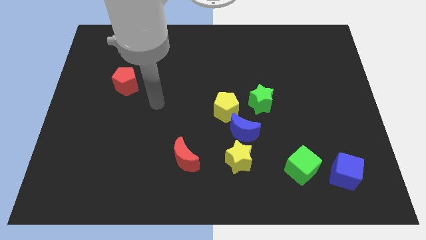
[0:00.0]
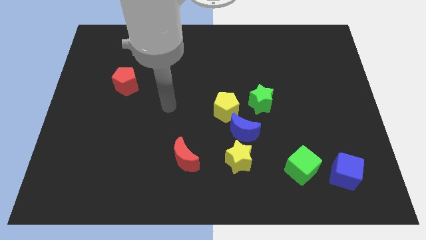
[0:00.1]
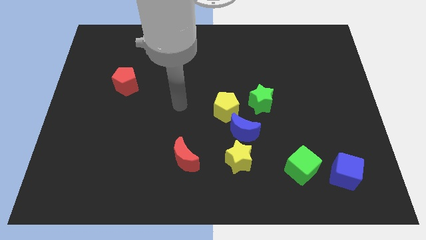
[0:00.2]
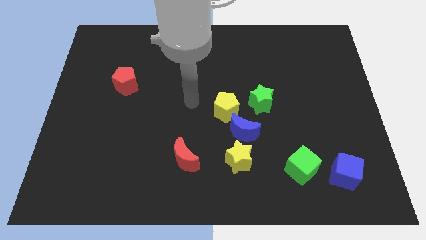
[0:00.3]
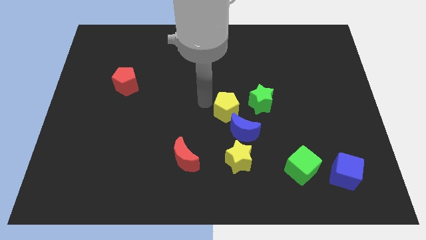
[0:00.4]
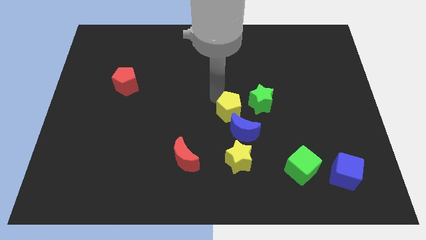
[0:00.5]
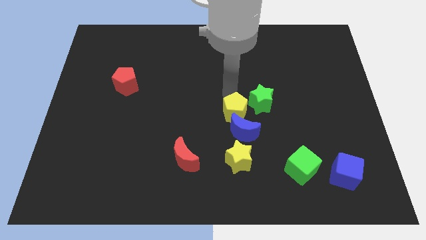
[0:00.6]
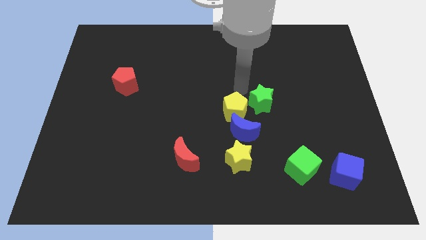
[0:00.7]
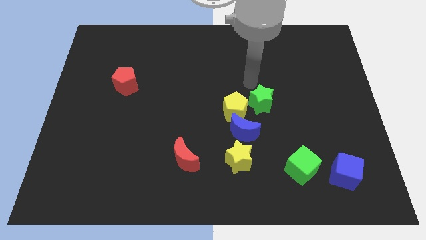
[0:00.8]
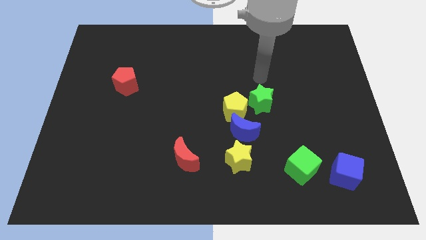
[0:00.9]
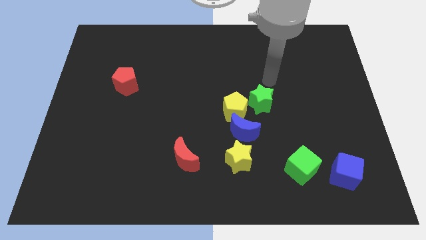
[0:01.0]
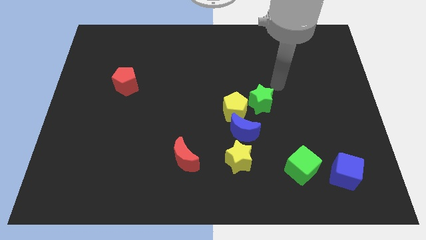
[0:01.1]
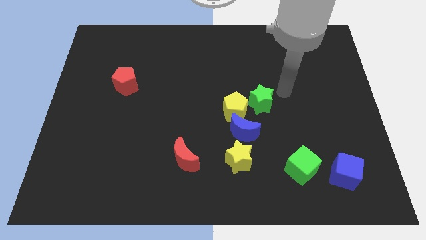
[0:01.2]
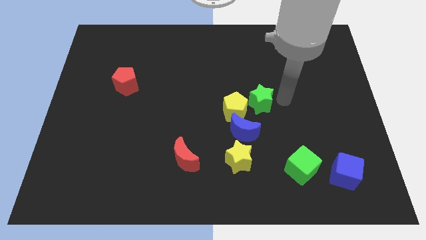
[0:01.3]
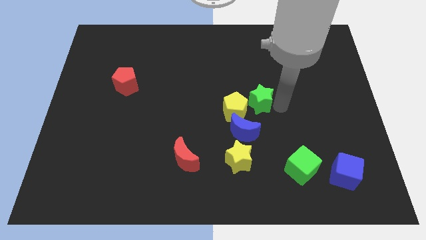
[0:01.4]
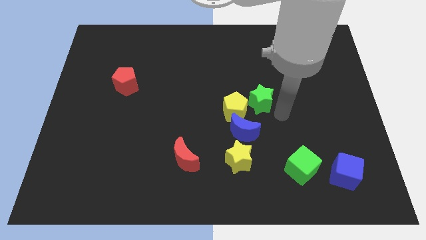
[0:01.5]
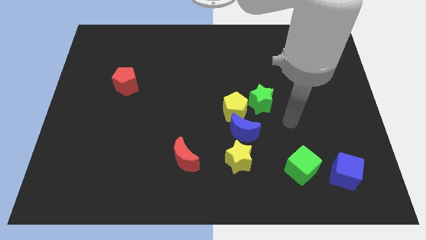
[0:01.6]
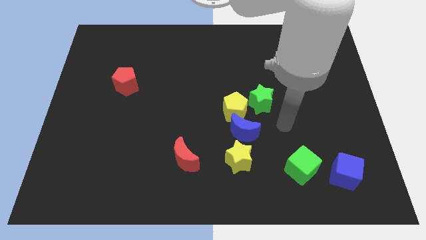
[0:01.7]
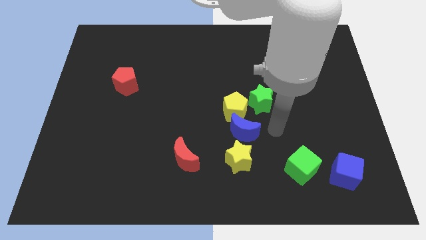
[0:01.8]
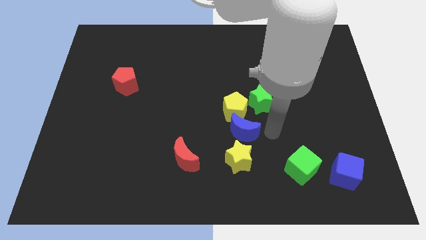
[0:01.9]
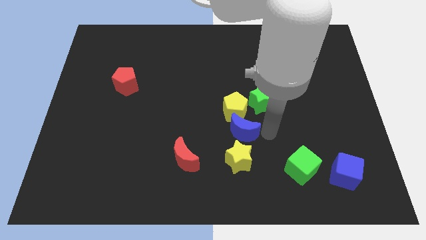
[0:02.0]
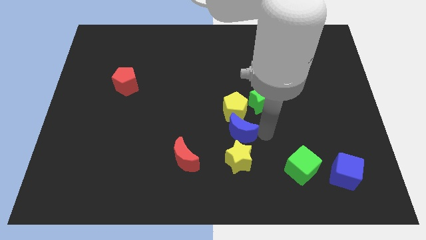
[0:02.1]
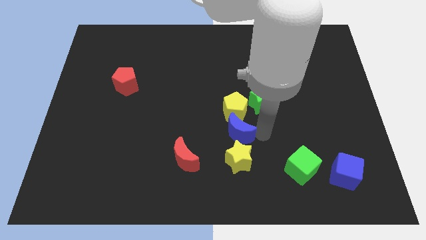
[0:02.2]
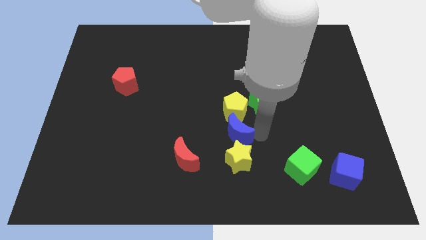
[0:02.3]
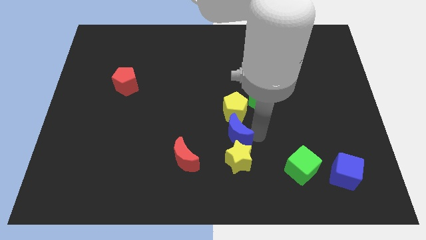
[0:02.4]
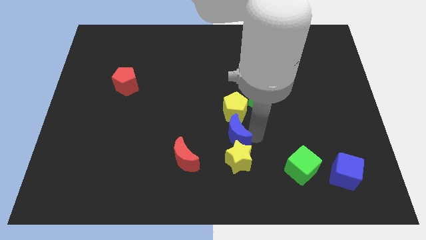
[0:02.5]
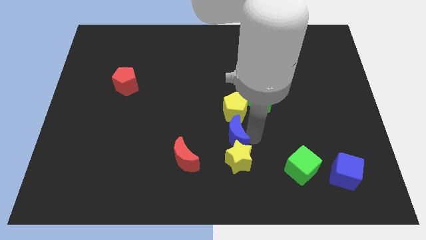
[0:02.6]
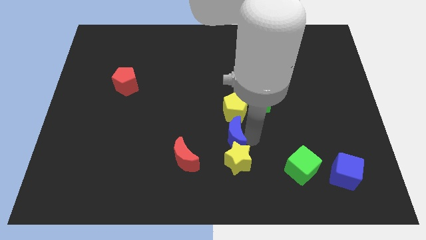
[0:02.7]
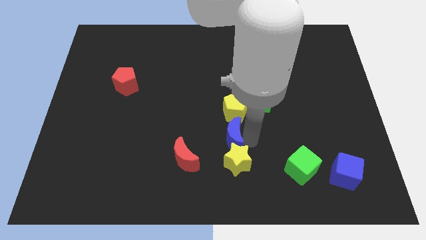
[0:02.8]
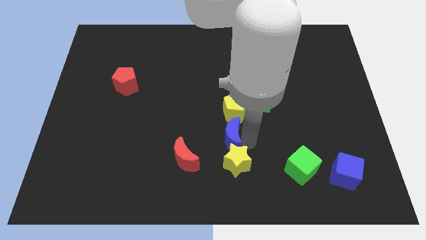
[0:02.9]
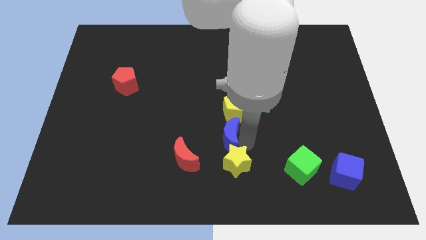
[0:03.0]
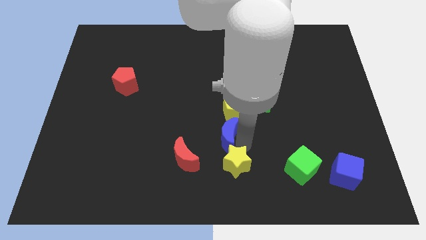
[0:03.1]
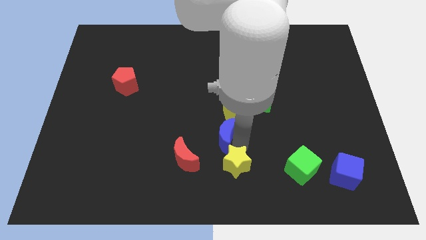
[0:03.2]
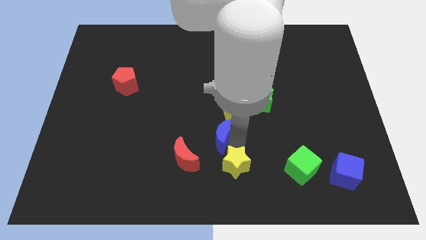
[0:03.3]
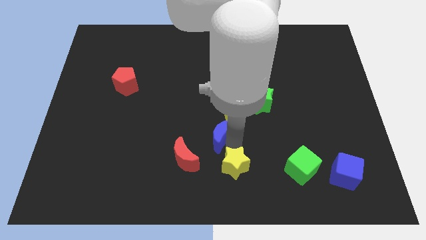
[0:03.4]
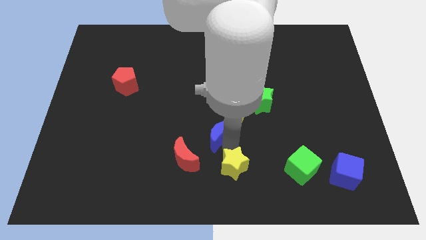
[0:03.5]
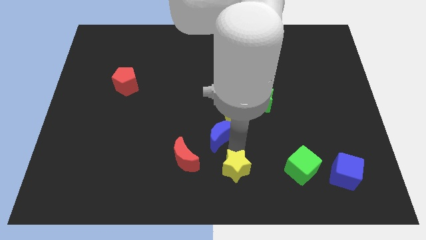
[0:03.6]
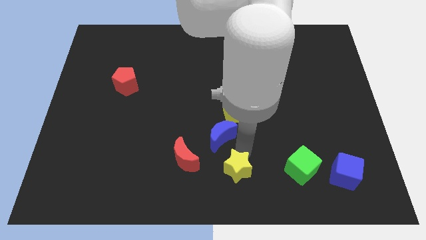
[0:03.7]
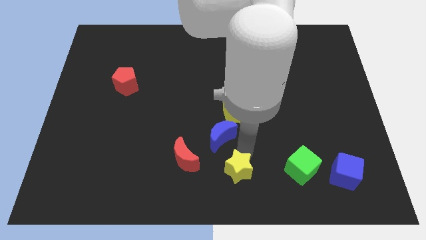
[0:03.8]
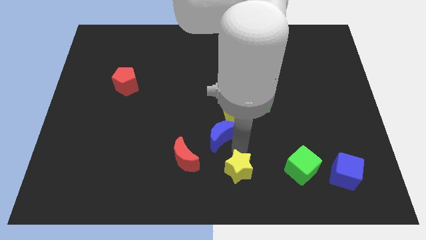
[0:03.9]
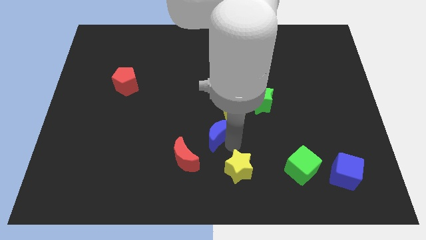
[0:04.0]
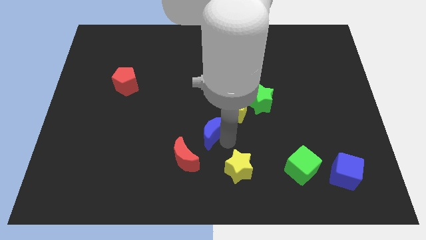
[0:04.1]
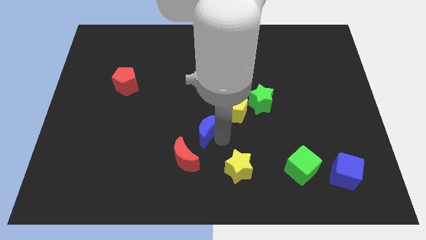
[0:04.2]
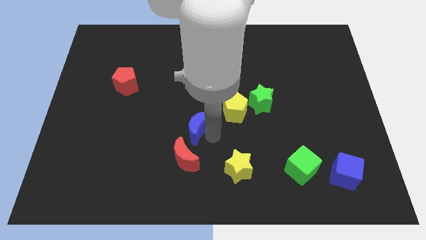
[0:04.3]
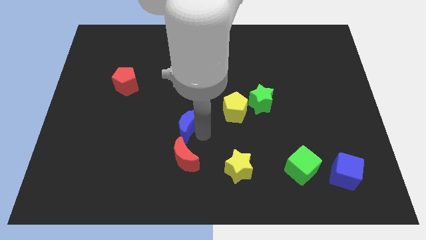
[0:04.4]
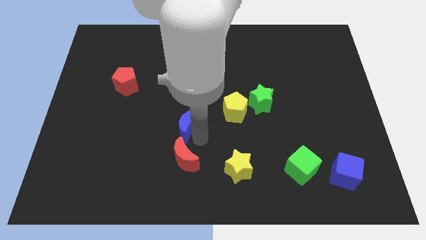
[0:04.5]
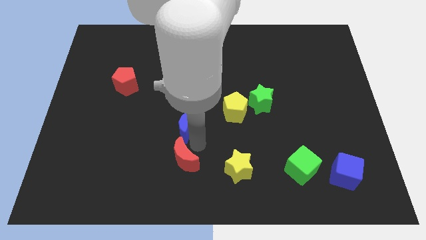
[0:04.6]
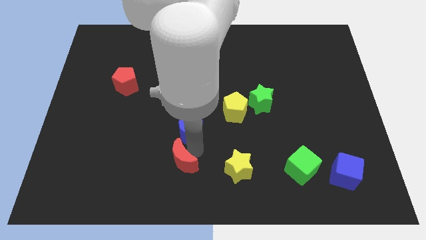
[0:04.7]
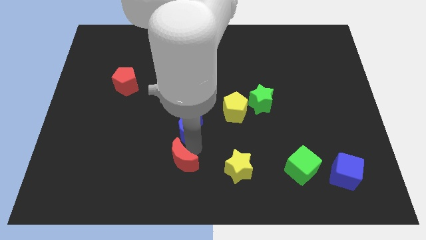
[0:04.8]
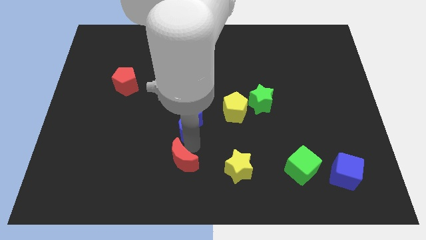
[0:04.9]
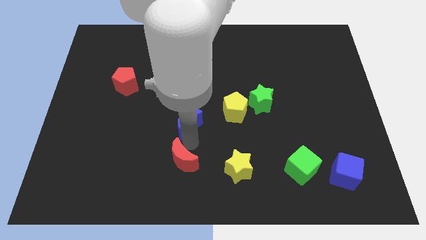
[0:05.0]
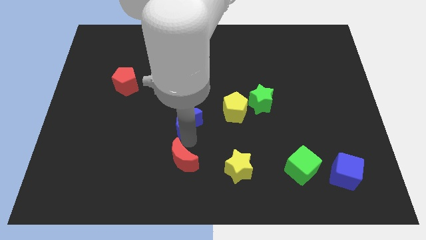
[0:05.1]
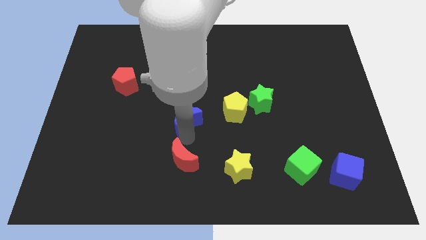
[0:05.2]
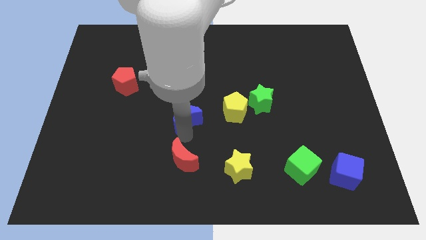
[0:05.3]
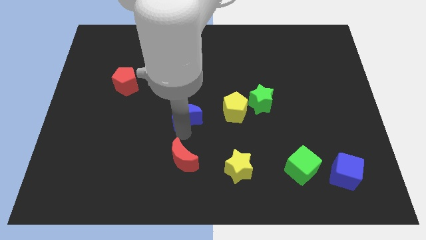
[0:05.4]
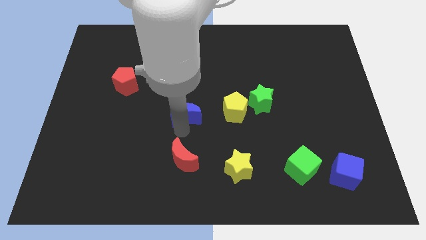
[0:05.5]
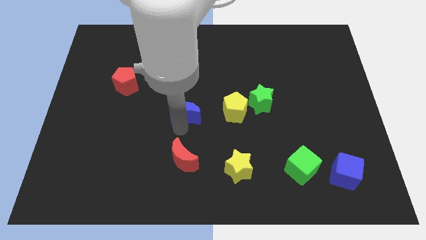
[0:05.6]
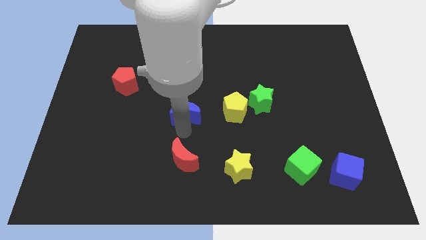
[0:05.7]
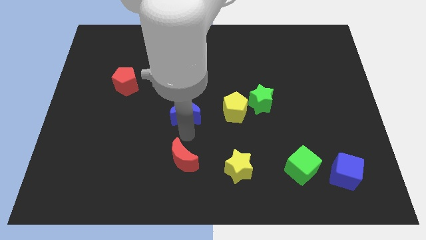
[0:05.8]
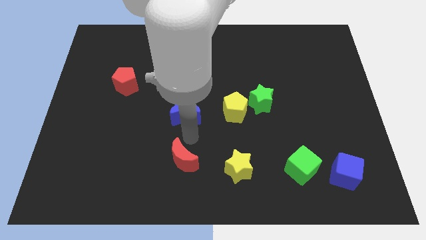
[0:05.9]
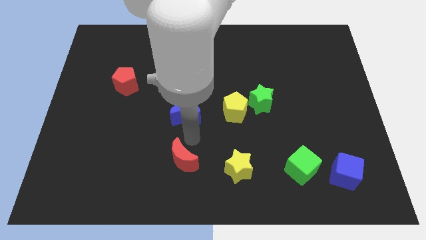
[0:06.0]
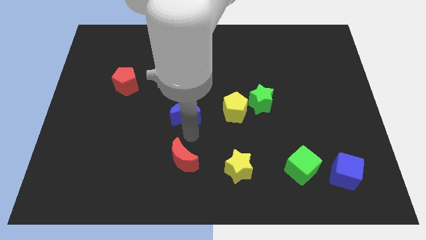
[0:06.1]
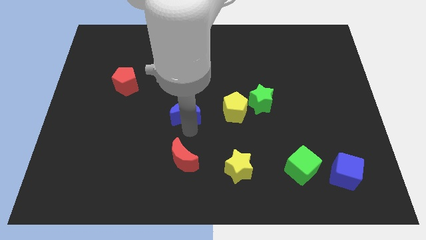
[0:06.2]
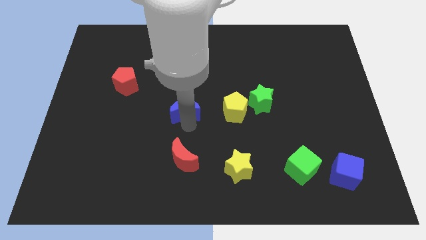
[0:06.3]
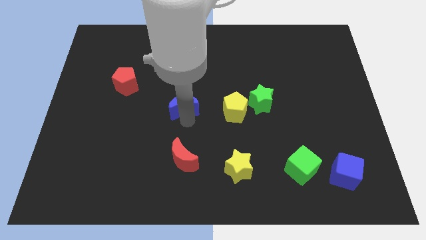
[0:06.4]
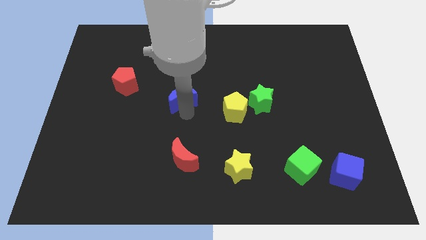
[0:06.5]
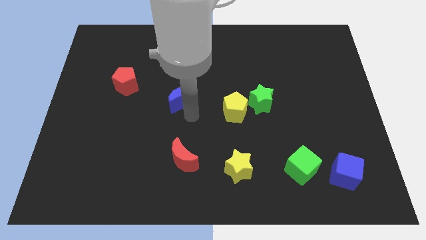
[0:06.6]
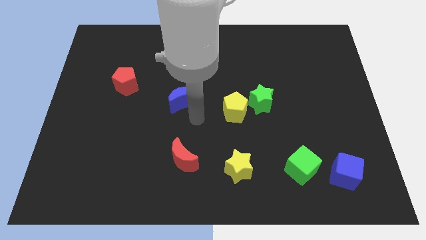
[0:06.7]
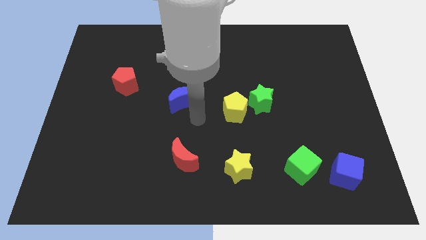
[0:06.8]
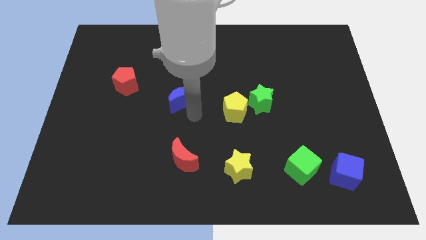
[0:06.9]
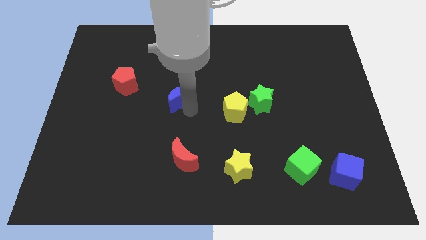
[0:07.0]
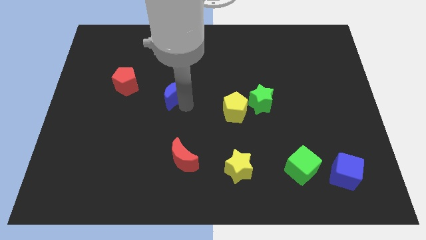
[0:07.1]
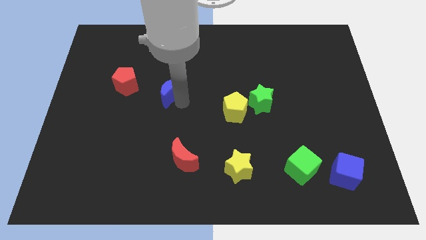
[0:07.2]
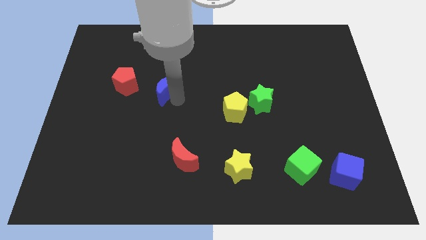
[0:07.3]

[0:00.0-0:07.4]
slide the blue moon upwards and to the left

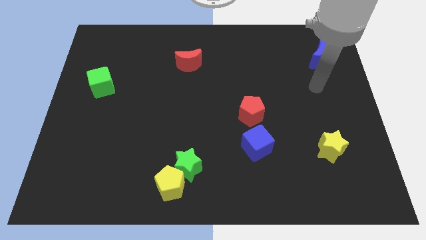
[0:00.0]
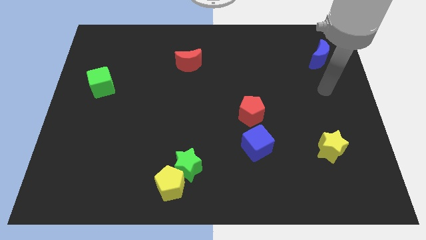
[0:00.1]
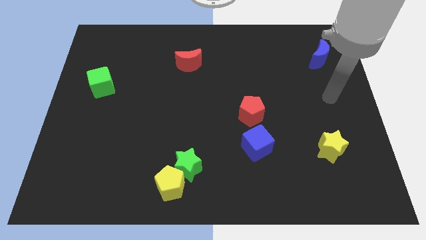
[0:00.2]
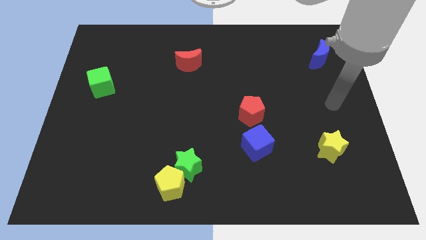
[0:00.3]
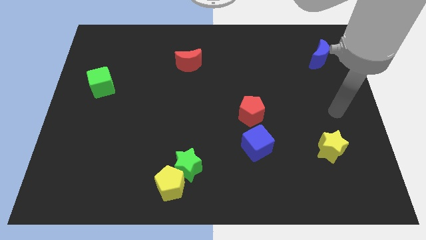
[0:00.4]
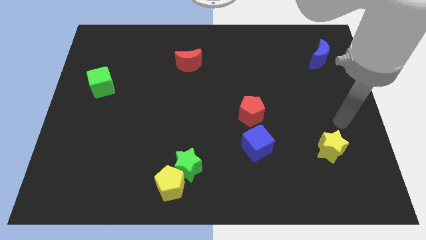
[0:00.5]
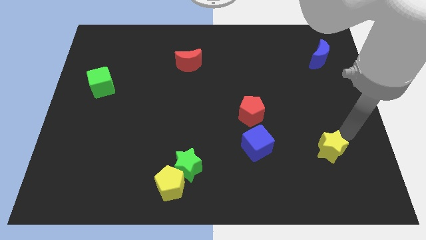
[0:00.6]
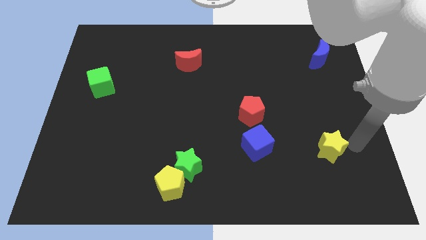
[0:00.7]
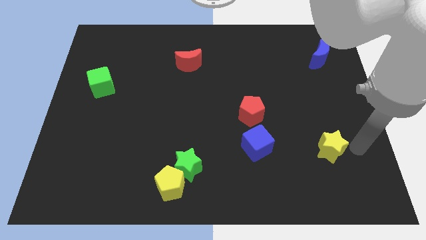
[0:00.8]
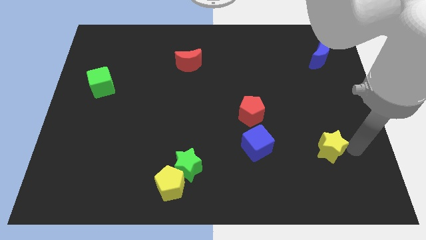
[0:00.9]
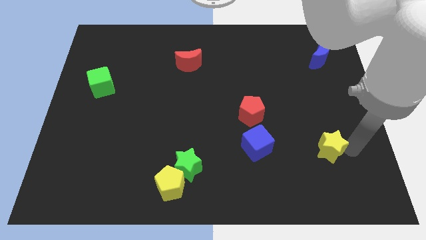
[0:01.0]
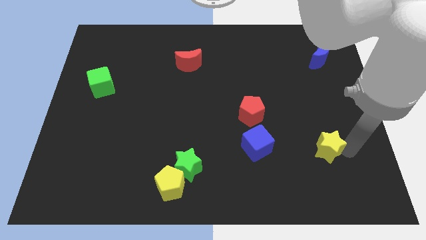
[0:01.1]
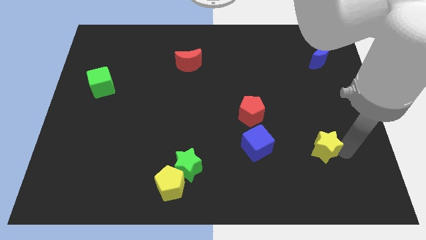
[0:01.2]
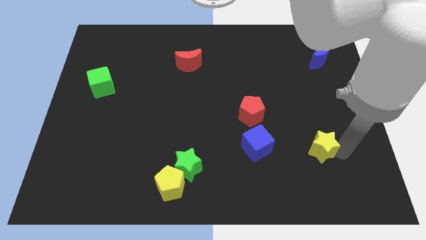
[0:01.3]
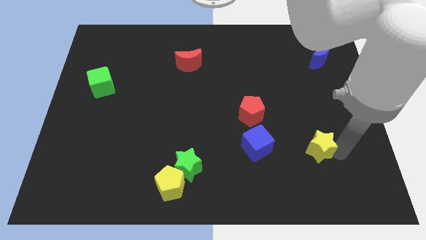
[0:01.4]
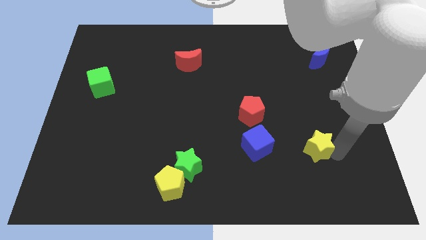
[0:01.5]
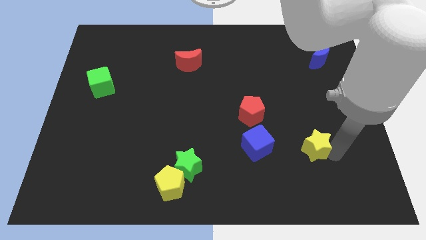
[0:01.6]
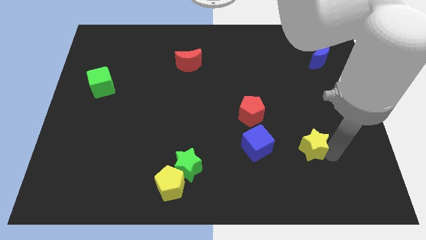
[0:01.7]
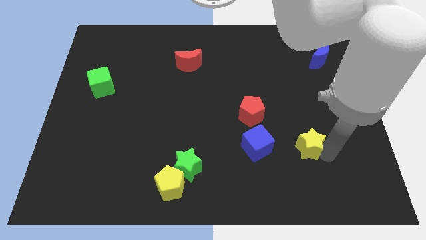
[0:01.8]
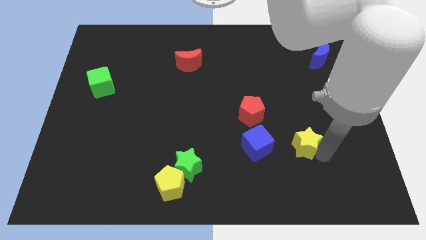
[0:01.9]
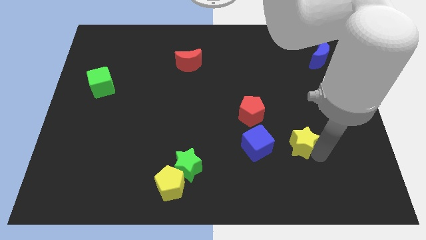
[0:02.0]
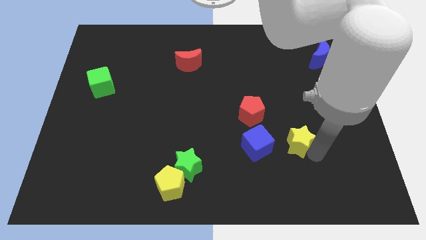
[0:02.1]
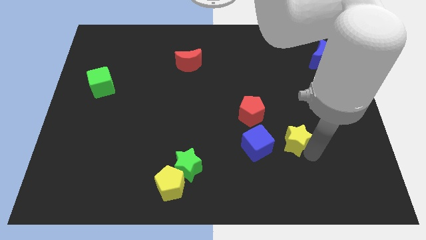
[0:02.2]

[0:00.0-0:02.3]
move the yellow star a little to the left
